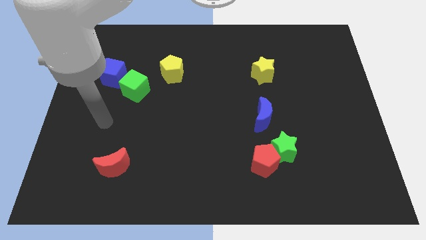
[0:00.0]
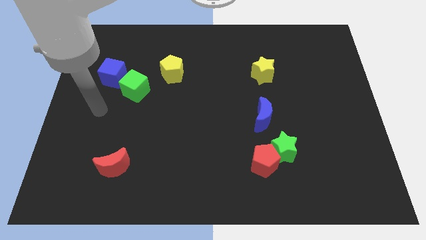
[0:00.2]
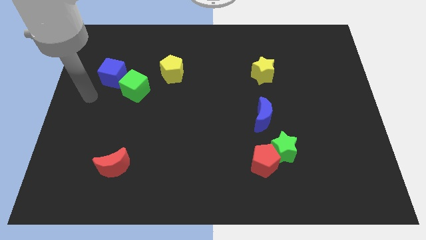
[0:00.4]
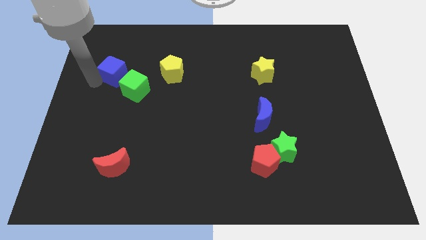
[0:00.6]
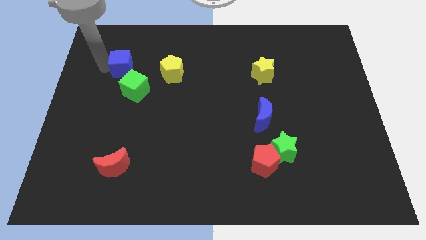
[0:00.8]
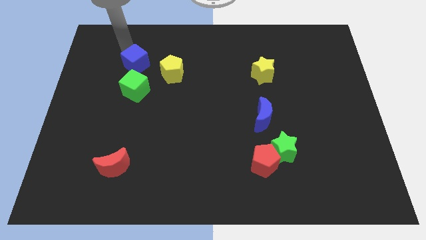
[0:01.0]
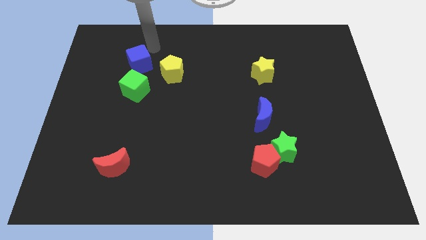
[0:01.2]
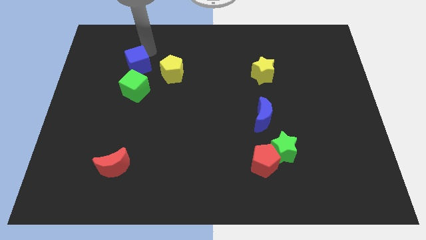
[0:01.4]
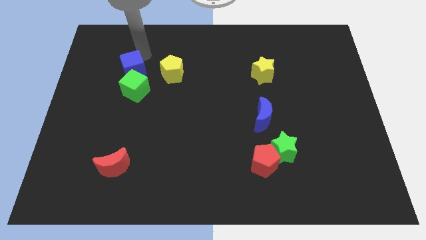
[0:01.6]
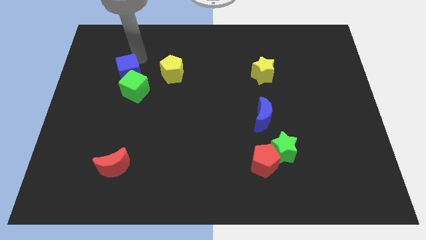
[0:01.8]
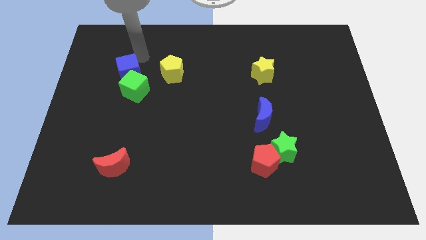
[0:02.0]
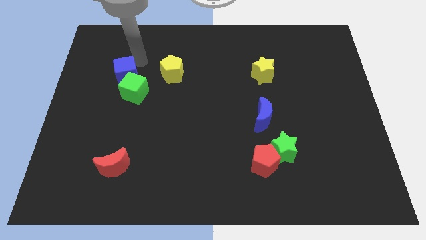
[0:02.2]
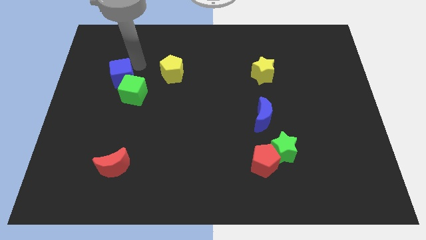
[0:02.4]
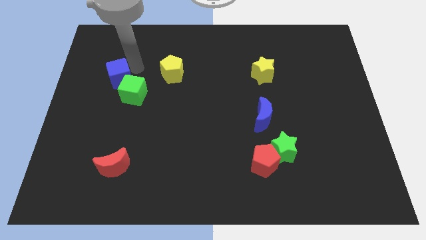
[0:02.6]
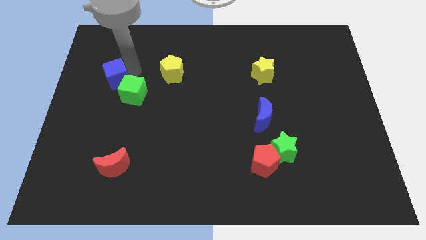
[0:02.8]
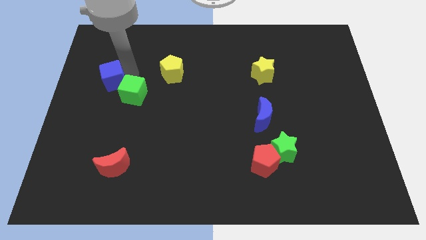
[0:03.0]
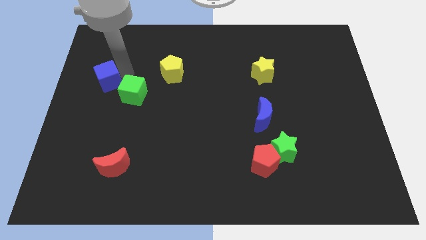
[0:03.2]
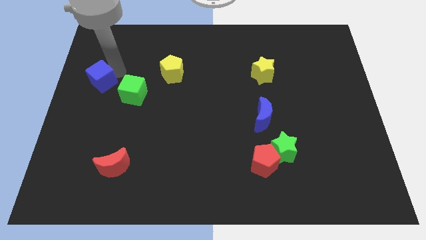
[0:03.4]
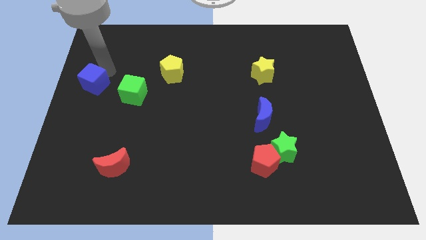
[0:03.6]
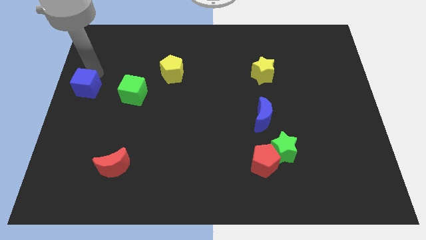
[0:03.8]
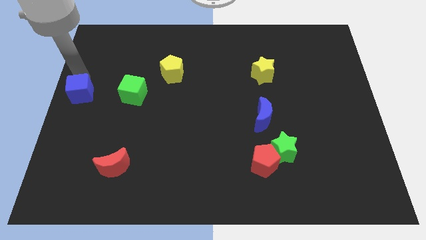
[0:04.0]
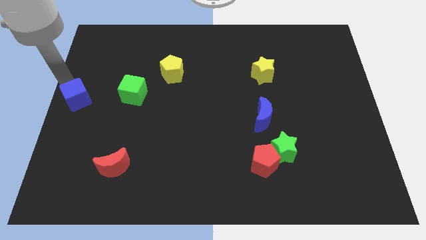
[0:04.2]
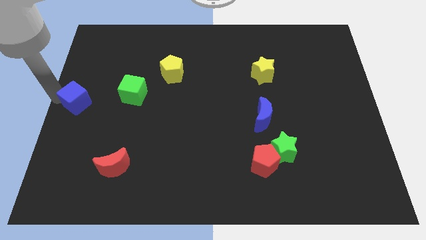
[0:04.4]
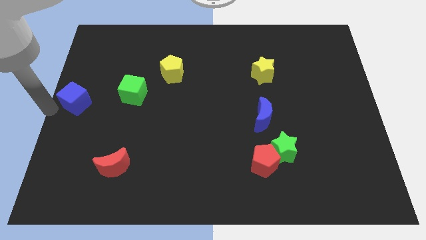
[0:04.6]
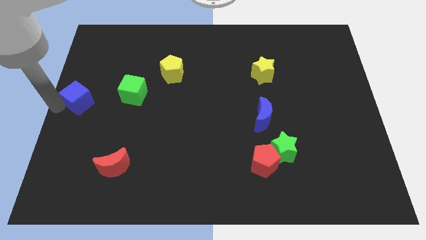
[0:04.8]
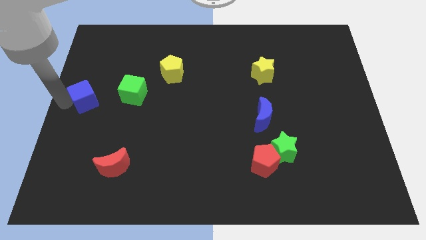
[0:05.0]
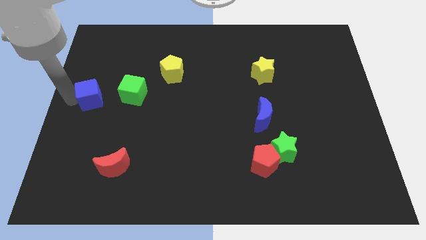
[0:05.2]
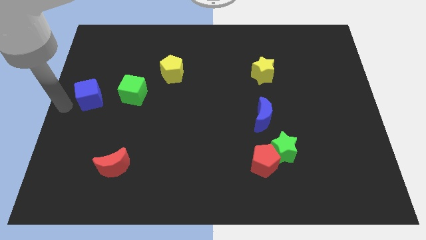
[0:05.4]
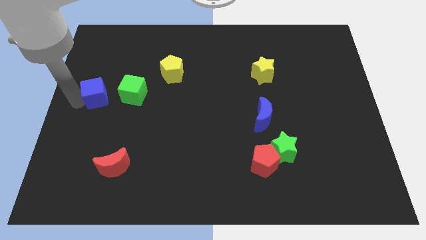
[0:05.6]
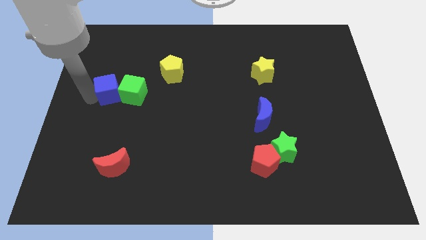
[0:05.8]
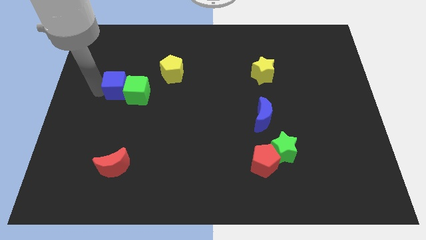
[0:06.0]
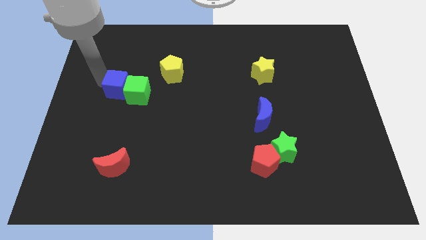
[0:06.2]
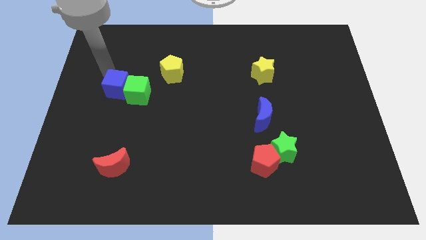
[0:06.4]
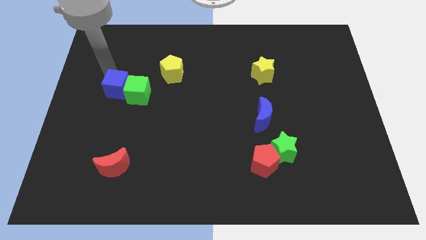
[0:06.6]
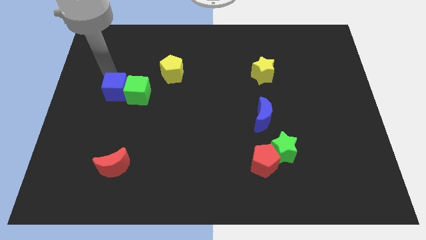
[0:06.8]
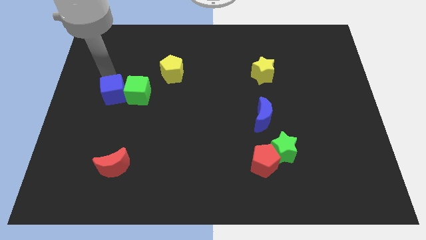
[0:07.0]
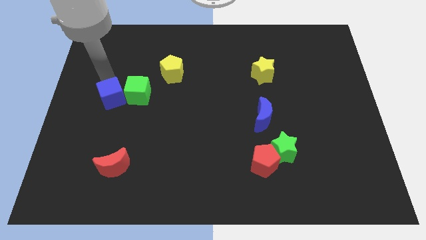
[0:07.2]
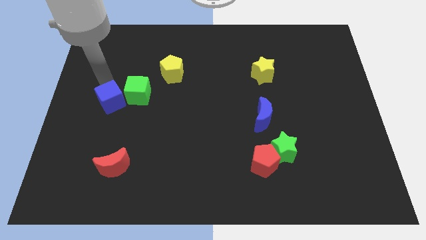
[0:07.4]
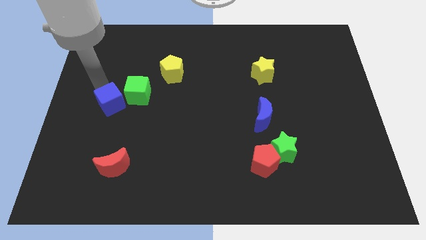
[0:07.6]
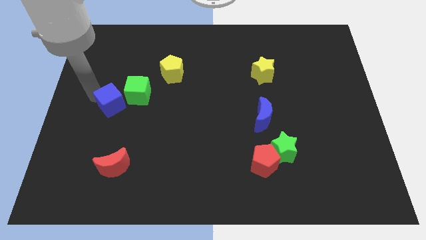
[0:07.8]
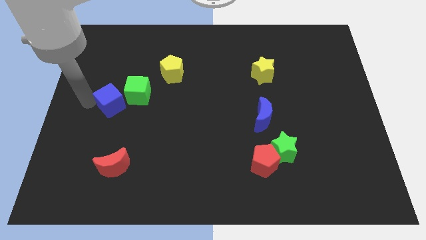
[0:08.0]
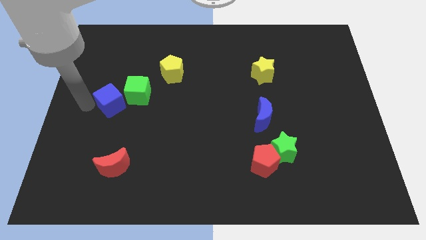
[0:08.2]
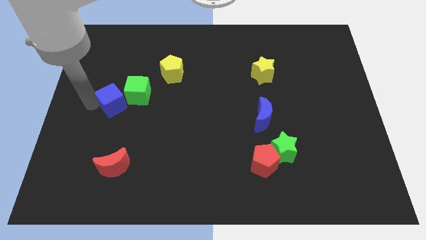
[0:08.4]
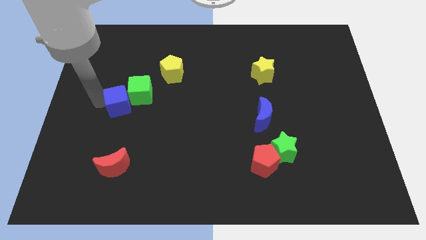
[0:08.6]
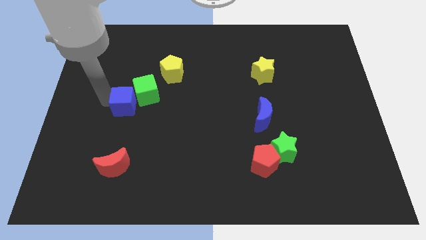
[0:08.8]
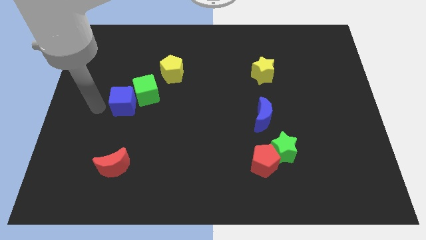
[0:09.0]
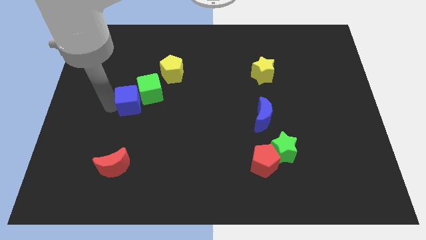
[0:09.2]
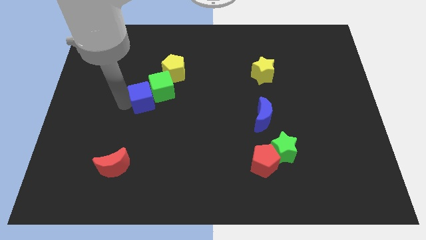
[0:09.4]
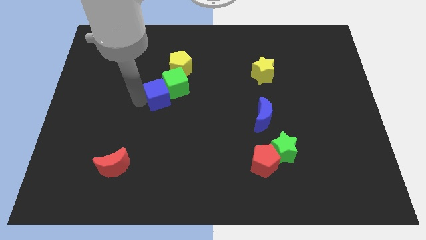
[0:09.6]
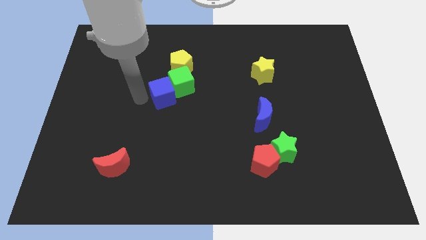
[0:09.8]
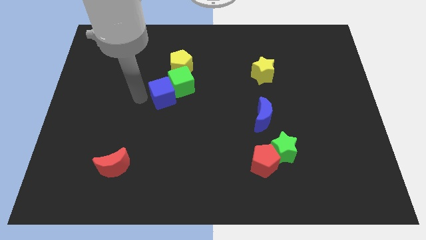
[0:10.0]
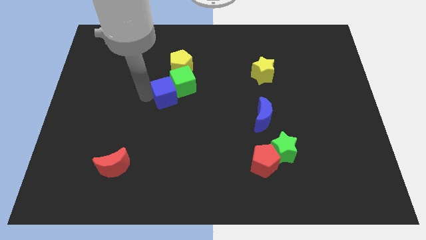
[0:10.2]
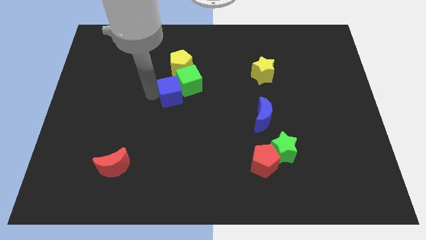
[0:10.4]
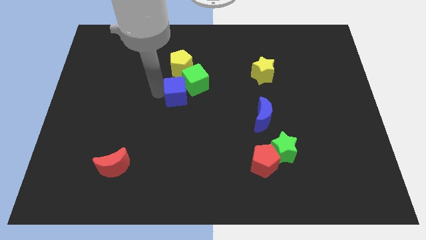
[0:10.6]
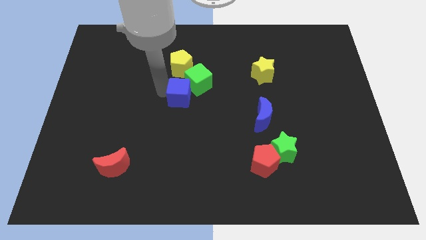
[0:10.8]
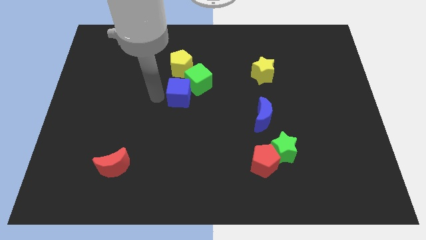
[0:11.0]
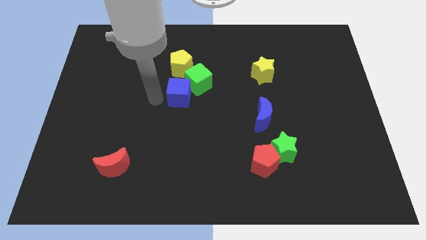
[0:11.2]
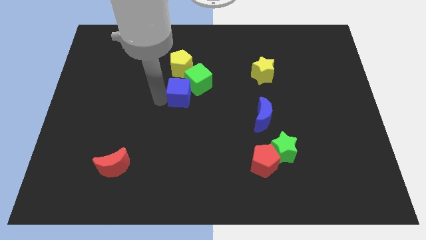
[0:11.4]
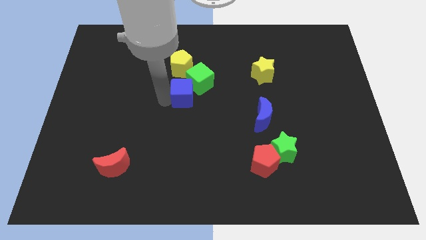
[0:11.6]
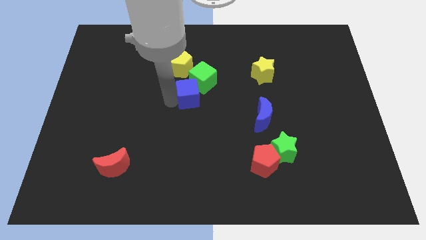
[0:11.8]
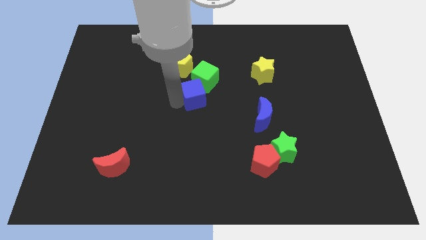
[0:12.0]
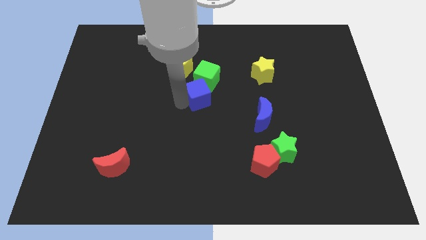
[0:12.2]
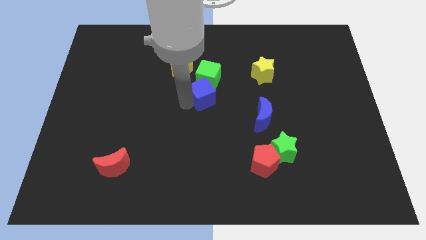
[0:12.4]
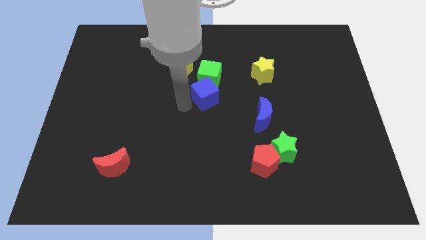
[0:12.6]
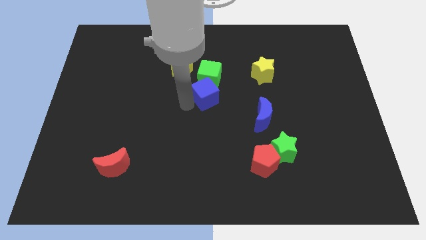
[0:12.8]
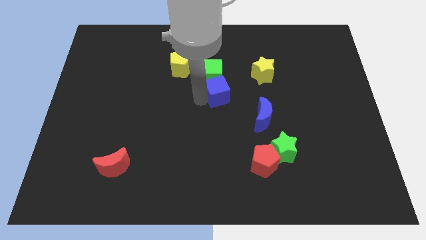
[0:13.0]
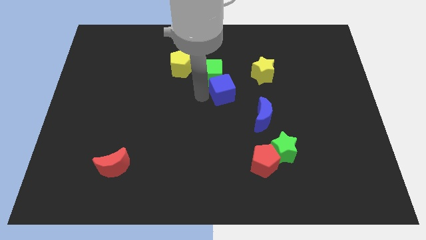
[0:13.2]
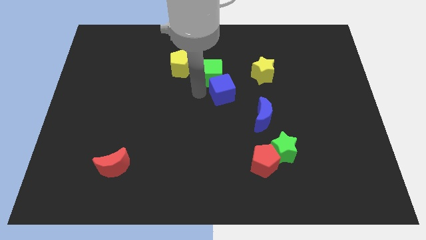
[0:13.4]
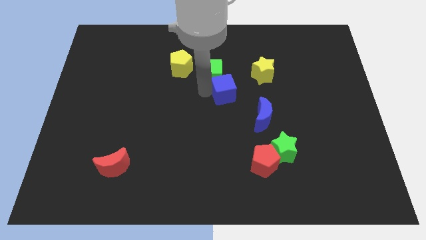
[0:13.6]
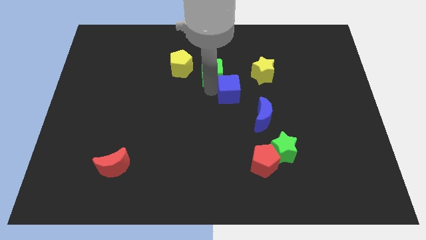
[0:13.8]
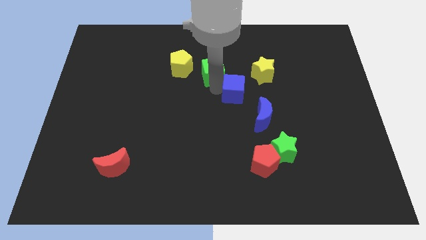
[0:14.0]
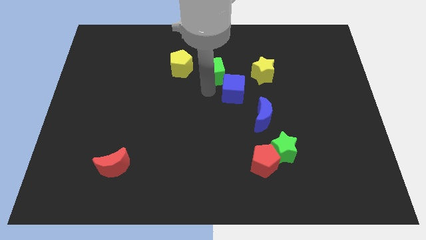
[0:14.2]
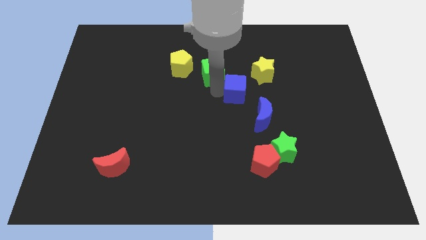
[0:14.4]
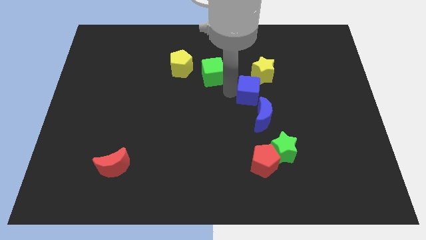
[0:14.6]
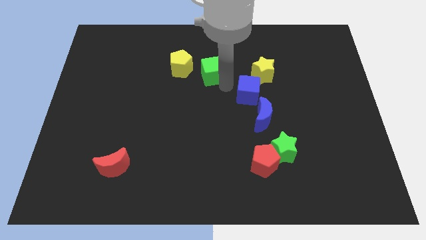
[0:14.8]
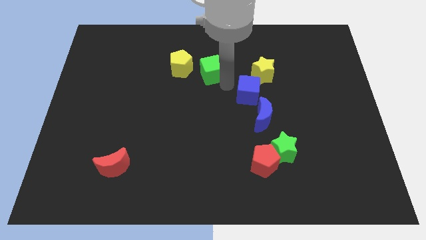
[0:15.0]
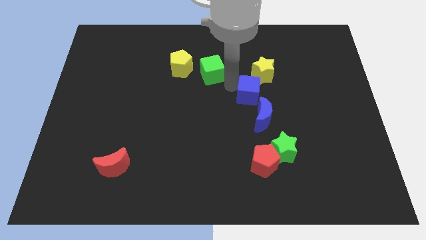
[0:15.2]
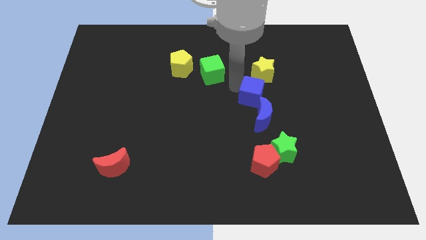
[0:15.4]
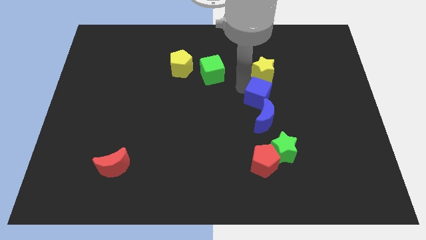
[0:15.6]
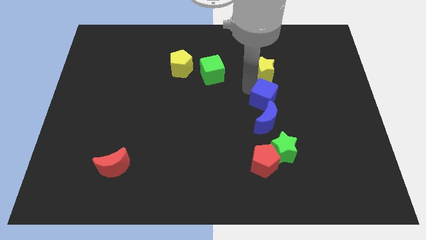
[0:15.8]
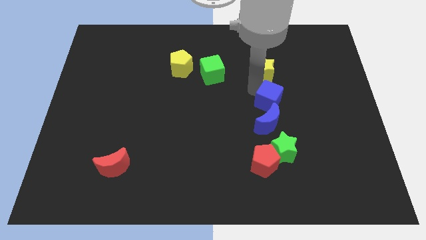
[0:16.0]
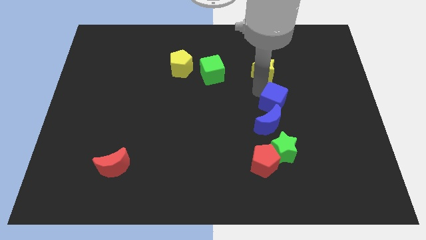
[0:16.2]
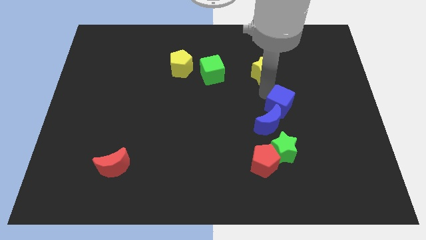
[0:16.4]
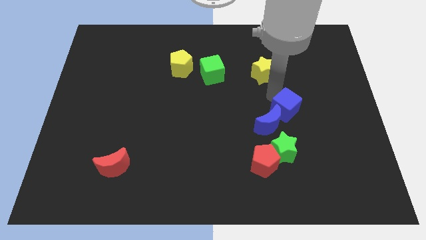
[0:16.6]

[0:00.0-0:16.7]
move the blue cube to the right of the blue moon
